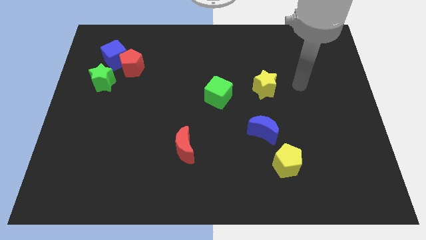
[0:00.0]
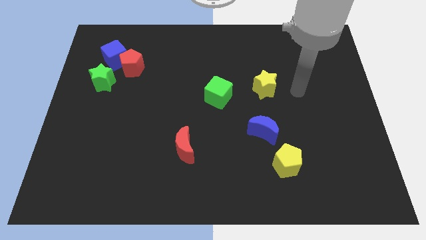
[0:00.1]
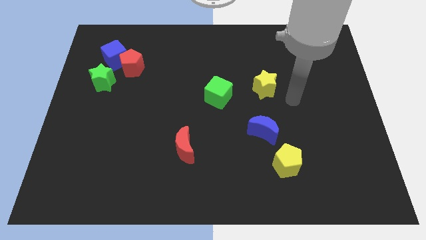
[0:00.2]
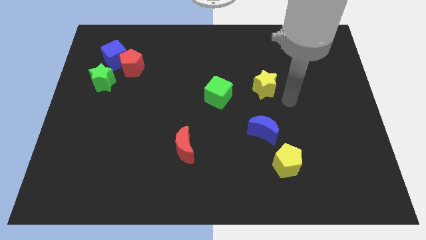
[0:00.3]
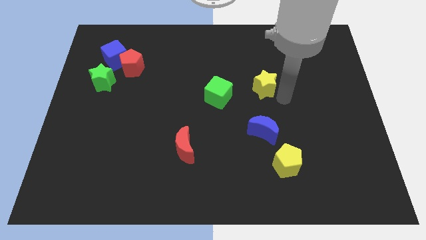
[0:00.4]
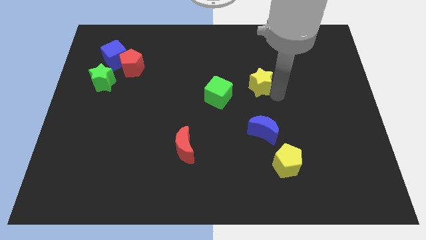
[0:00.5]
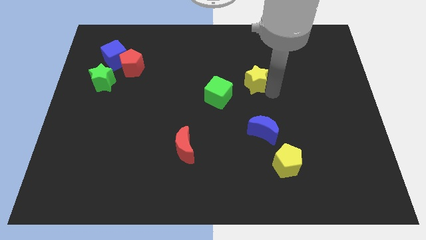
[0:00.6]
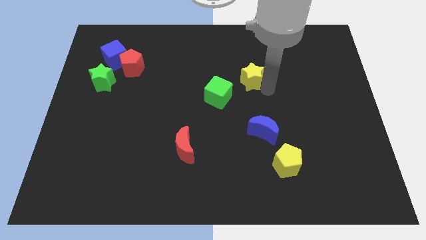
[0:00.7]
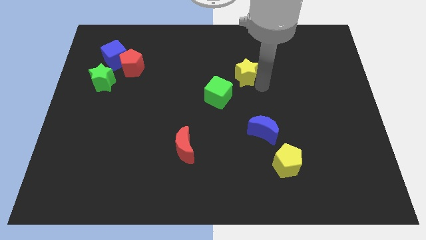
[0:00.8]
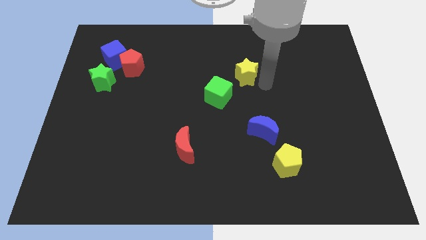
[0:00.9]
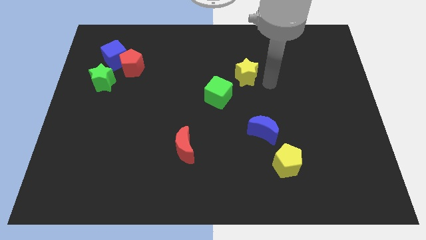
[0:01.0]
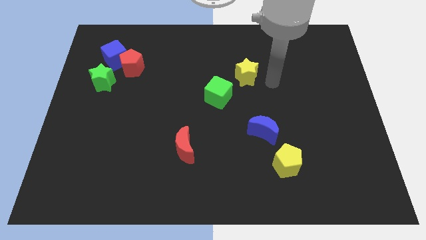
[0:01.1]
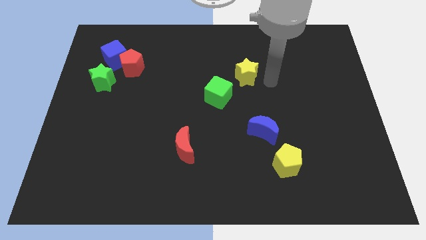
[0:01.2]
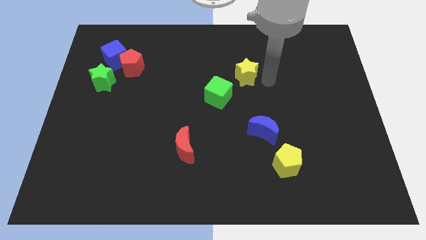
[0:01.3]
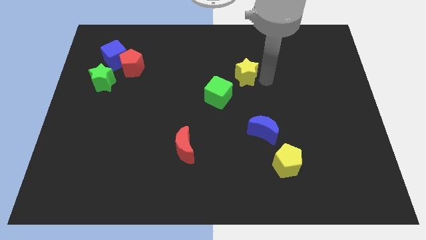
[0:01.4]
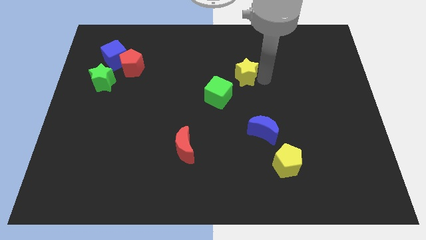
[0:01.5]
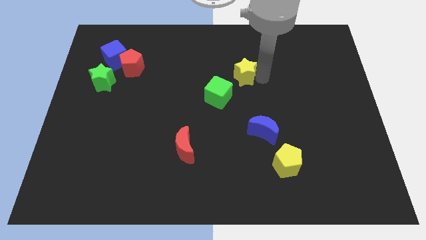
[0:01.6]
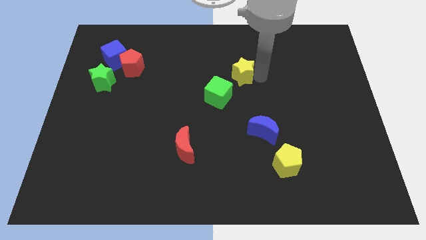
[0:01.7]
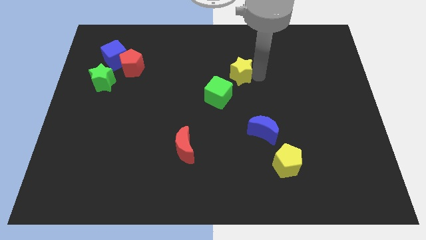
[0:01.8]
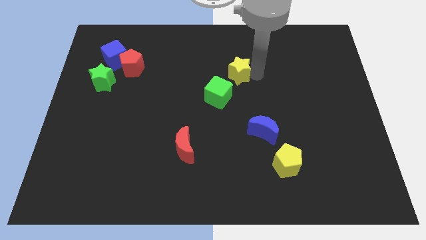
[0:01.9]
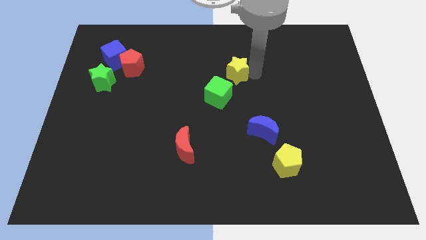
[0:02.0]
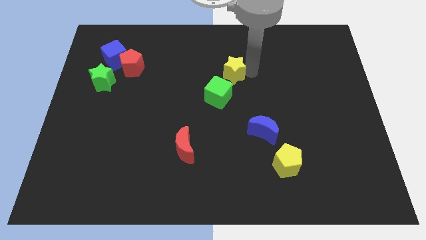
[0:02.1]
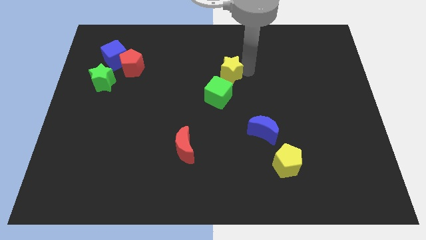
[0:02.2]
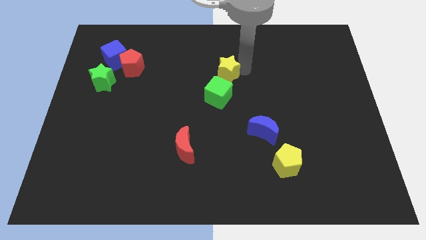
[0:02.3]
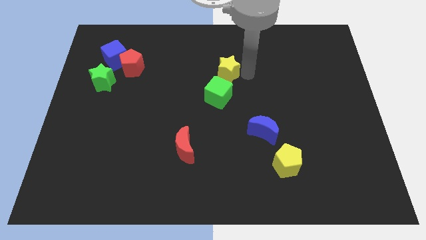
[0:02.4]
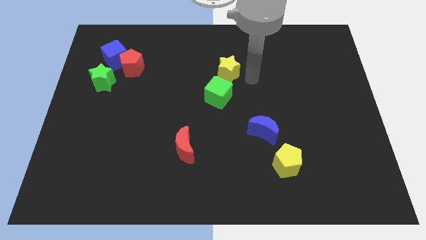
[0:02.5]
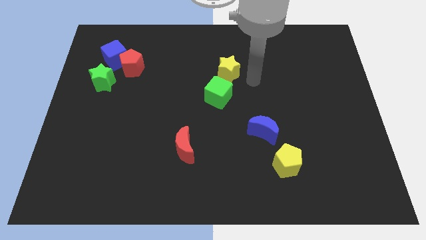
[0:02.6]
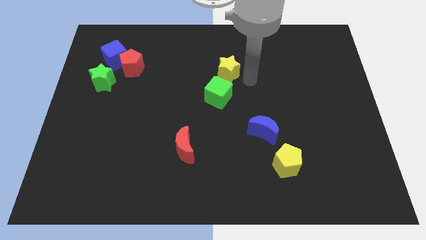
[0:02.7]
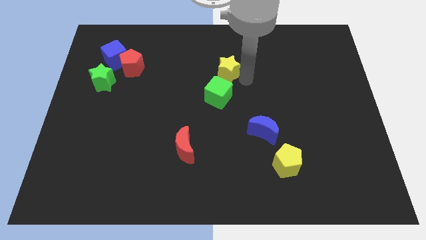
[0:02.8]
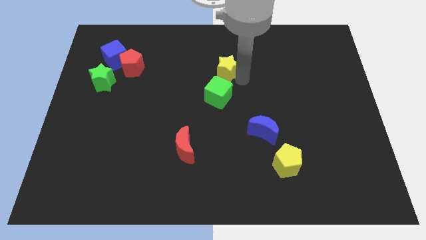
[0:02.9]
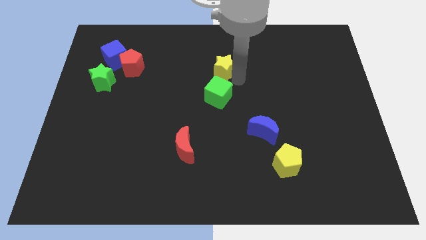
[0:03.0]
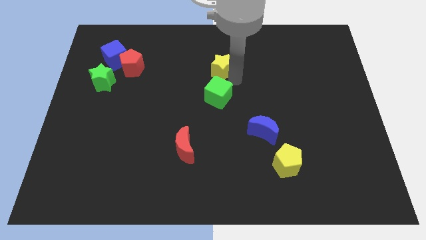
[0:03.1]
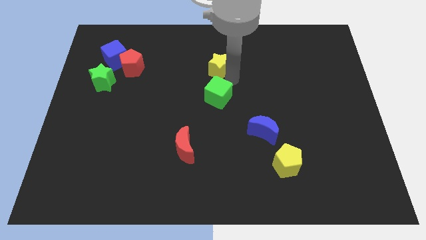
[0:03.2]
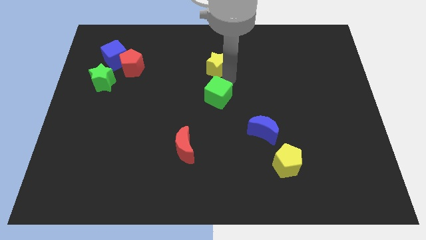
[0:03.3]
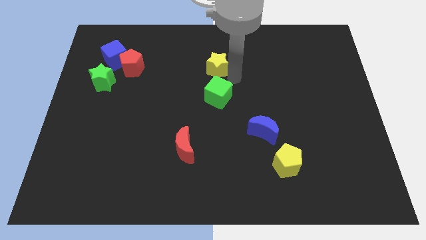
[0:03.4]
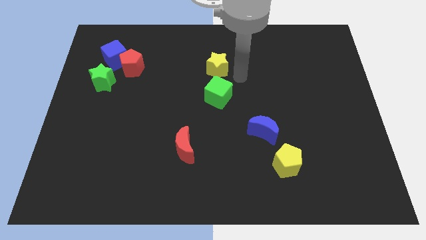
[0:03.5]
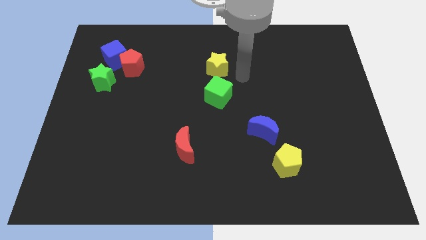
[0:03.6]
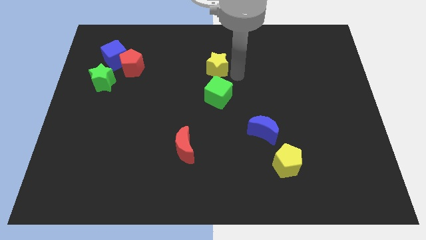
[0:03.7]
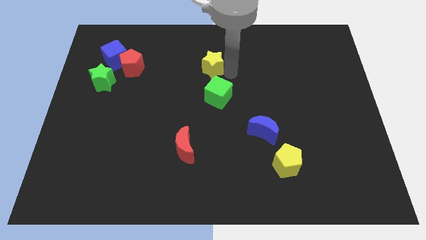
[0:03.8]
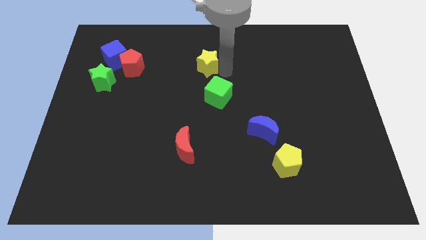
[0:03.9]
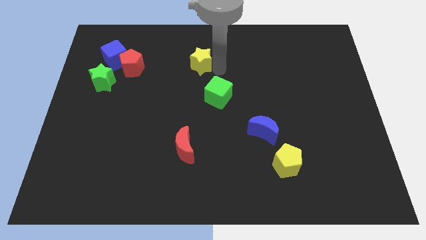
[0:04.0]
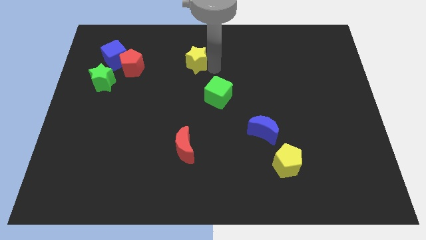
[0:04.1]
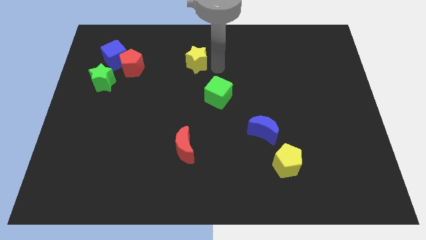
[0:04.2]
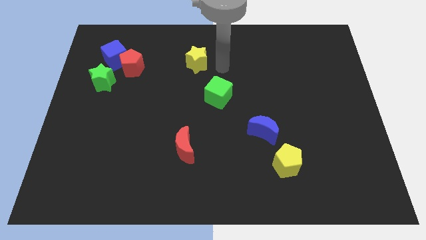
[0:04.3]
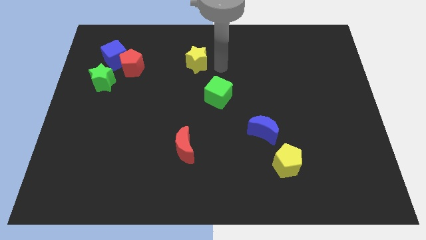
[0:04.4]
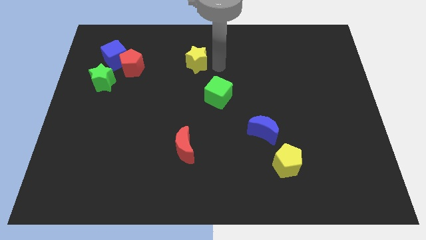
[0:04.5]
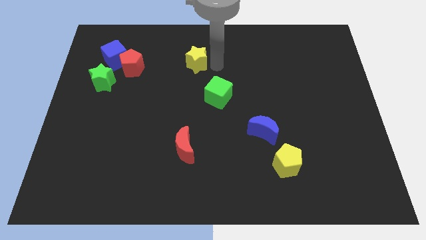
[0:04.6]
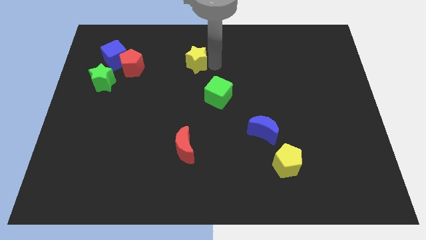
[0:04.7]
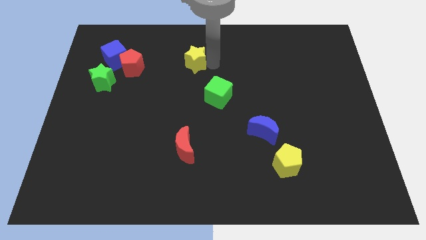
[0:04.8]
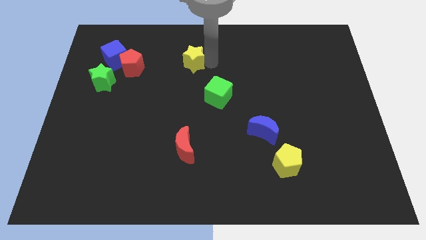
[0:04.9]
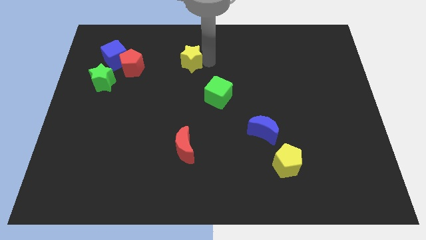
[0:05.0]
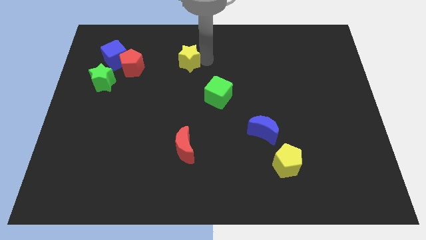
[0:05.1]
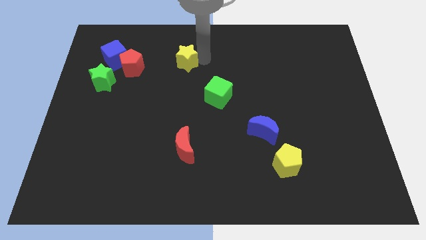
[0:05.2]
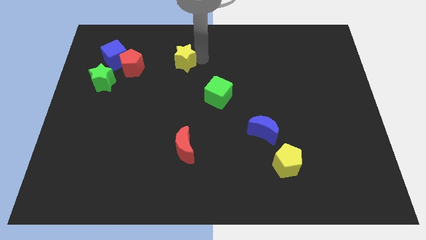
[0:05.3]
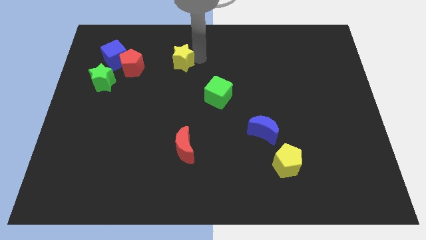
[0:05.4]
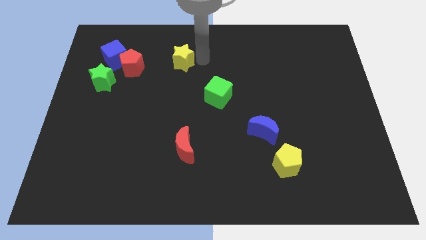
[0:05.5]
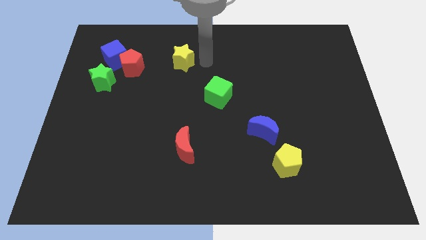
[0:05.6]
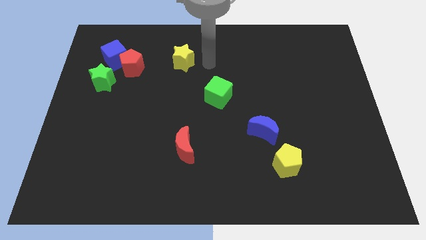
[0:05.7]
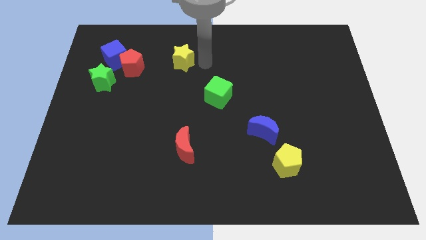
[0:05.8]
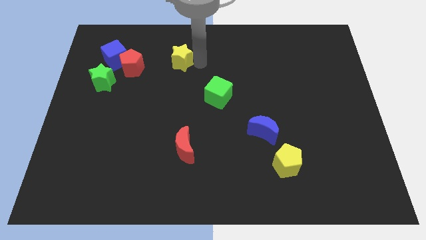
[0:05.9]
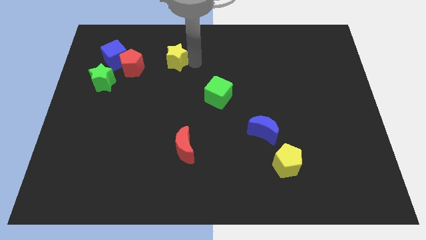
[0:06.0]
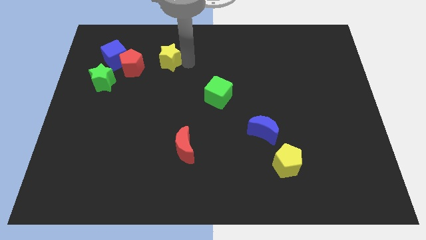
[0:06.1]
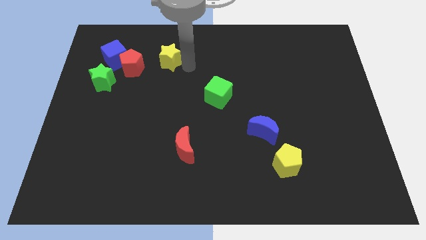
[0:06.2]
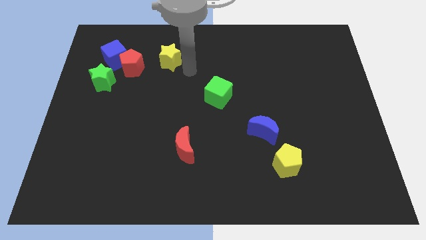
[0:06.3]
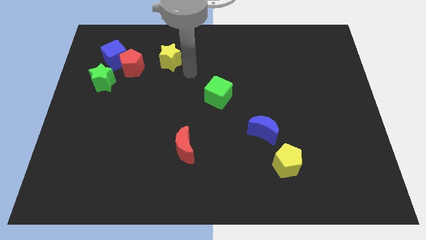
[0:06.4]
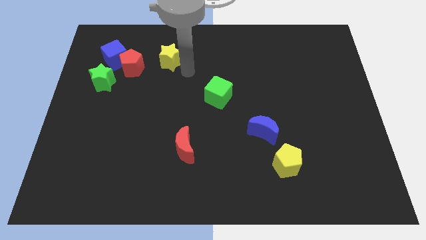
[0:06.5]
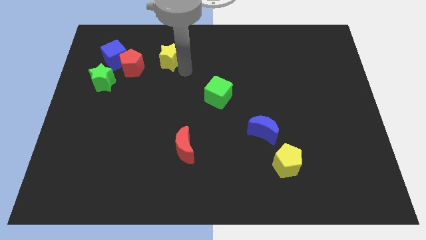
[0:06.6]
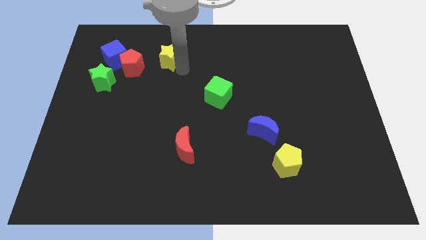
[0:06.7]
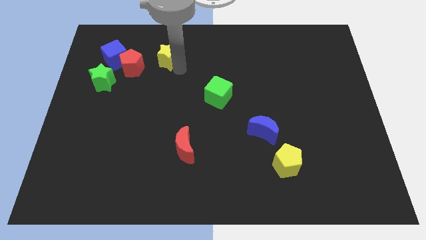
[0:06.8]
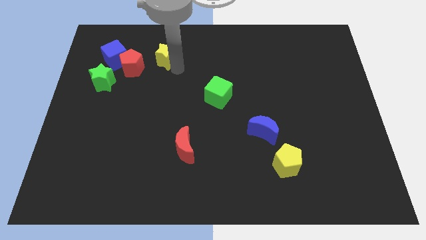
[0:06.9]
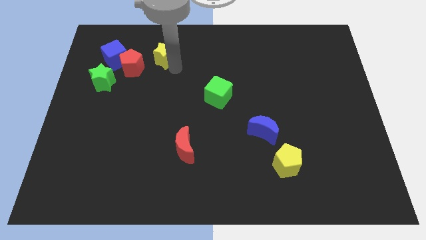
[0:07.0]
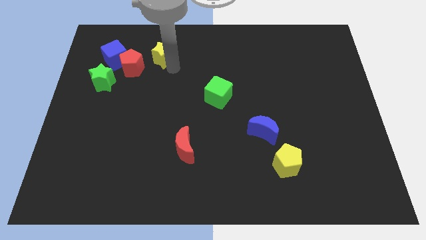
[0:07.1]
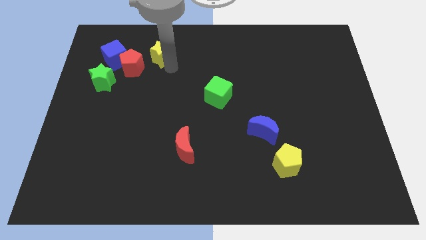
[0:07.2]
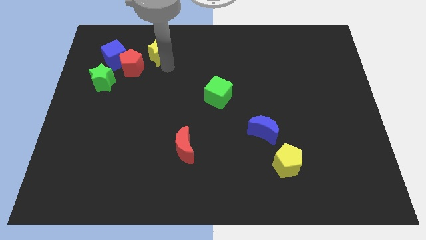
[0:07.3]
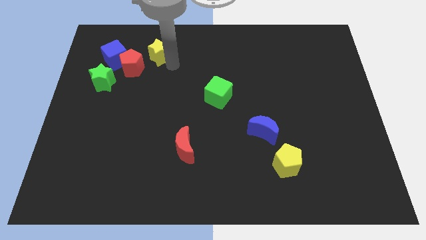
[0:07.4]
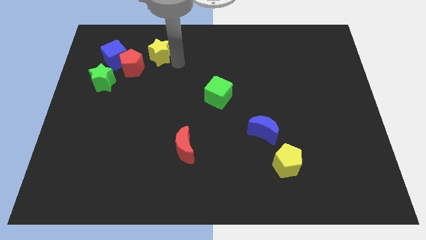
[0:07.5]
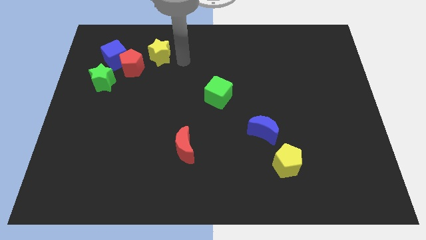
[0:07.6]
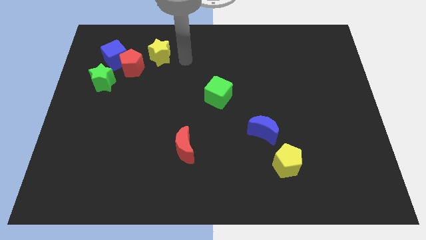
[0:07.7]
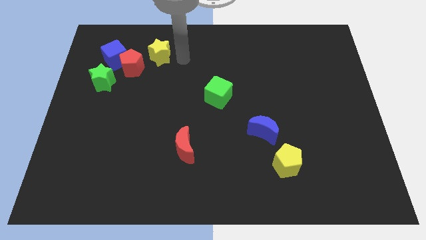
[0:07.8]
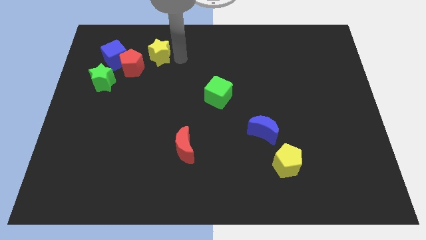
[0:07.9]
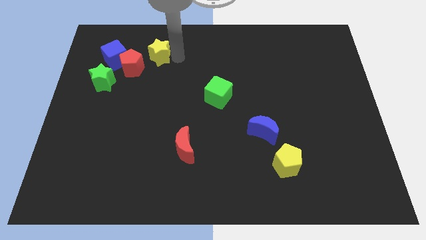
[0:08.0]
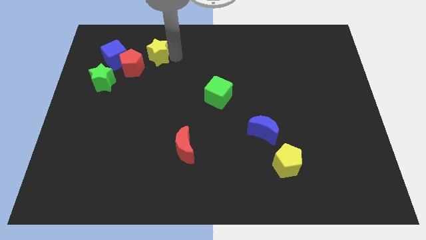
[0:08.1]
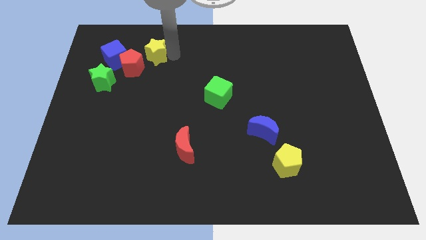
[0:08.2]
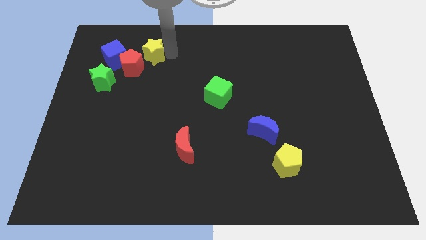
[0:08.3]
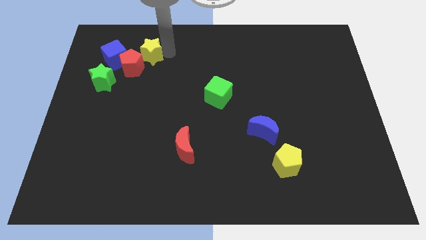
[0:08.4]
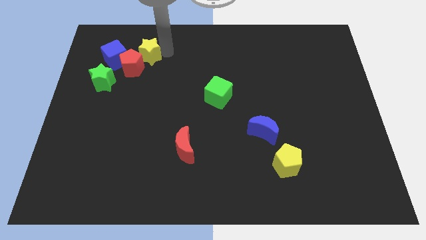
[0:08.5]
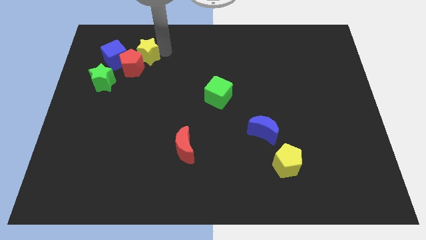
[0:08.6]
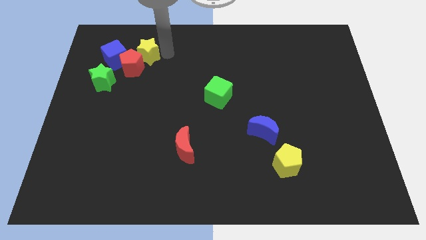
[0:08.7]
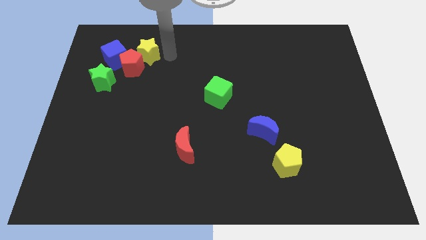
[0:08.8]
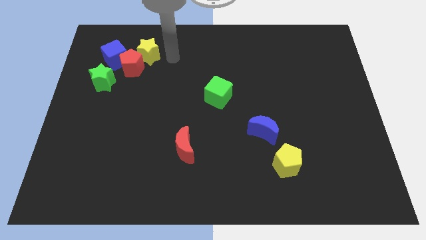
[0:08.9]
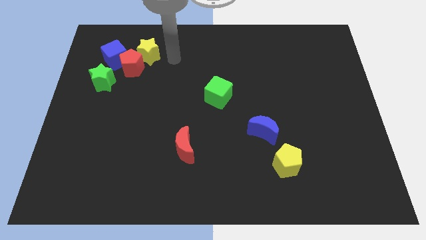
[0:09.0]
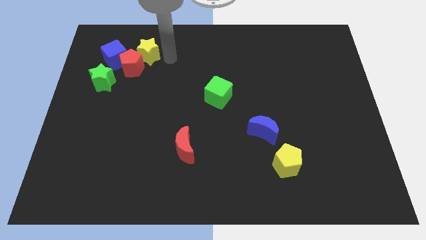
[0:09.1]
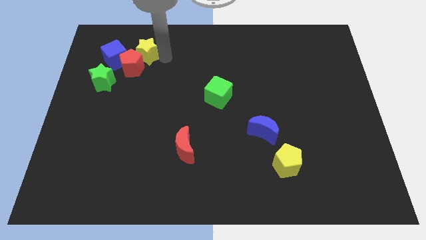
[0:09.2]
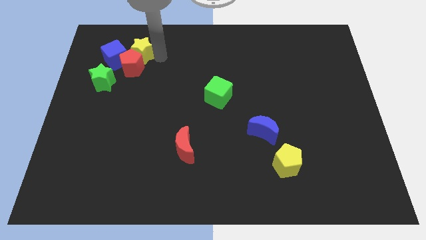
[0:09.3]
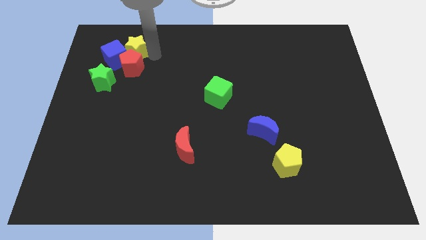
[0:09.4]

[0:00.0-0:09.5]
put the yellow star to the blue cube
